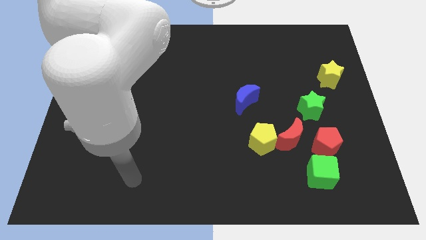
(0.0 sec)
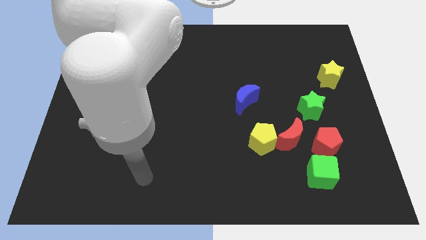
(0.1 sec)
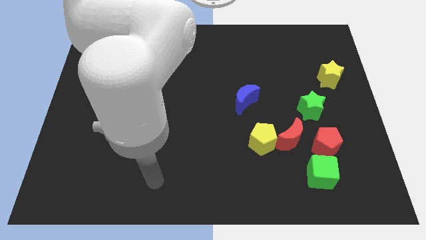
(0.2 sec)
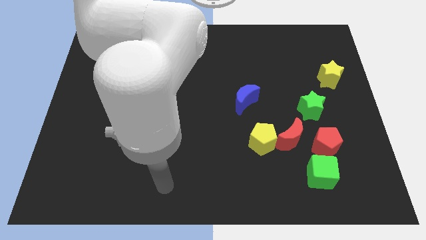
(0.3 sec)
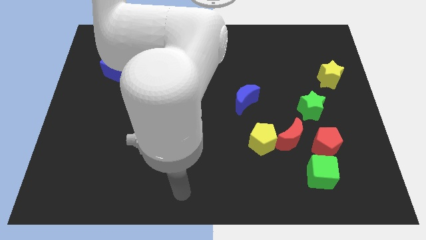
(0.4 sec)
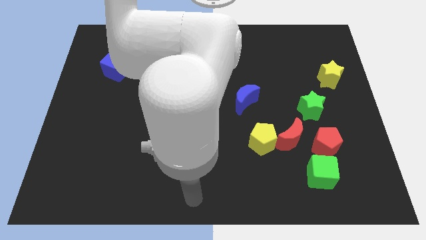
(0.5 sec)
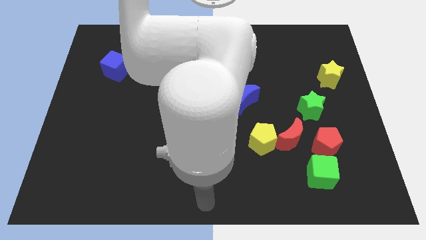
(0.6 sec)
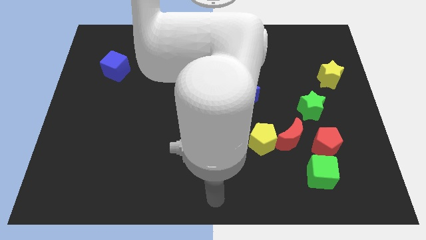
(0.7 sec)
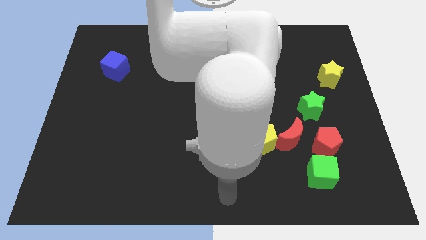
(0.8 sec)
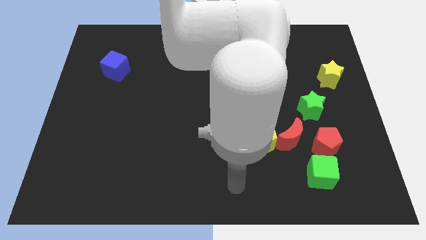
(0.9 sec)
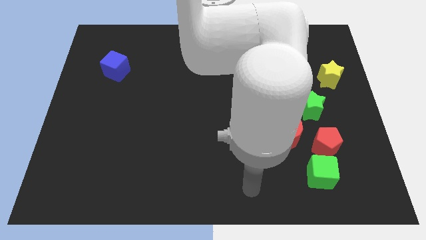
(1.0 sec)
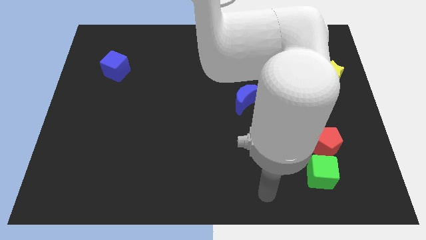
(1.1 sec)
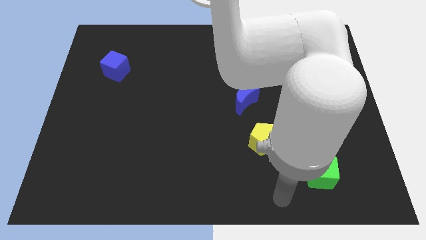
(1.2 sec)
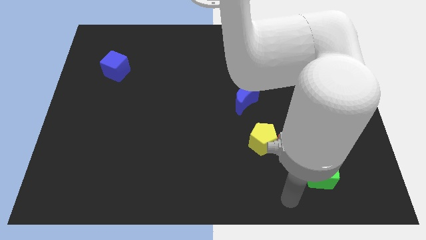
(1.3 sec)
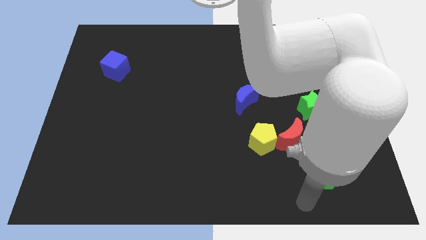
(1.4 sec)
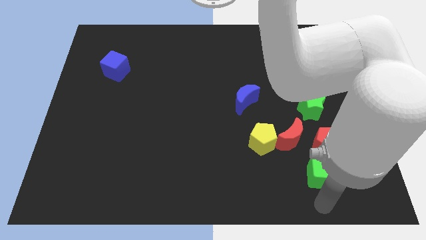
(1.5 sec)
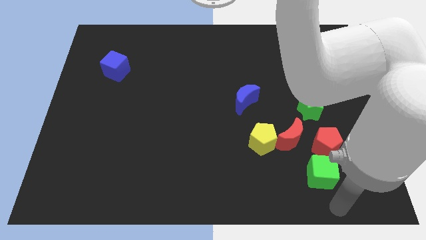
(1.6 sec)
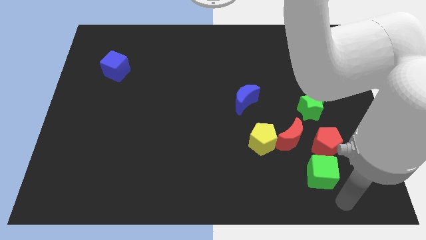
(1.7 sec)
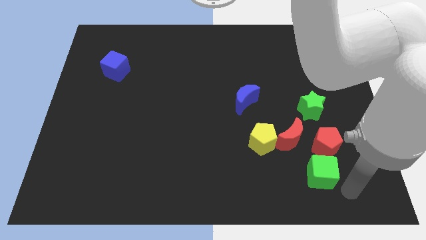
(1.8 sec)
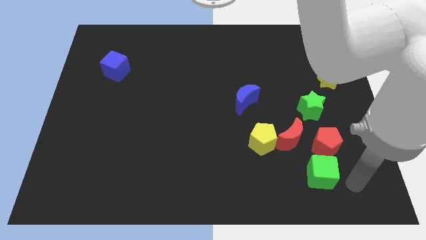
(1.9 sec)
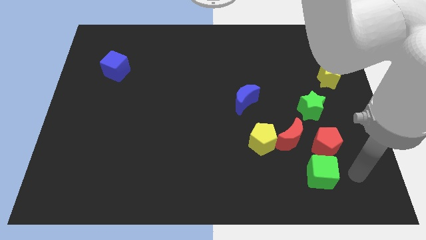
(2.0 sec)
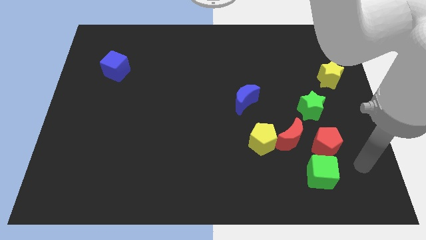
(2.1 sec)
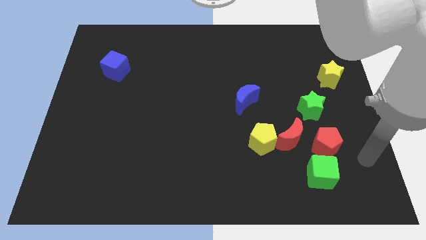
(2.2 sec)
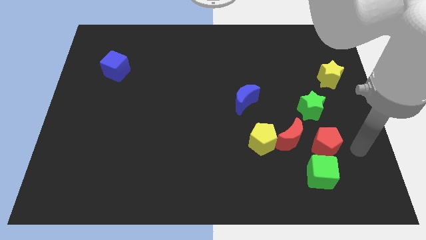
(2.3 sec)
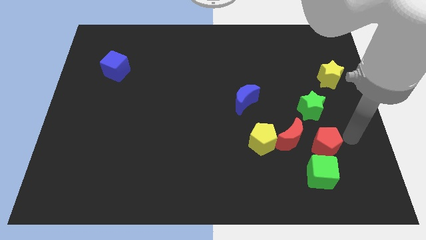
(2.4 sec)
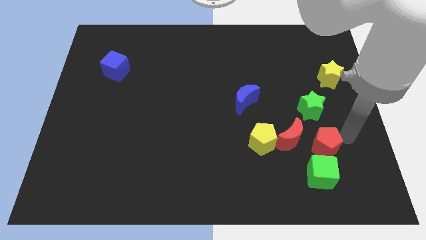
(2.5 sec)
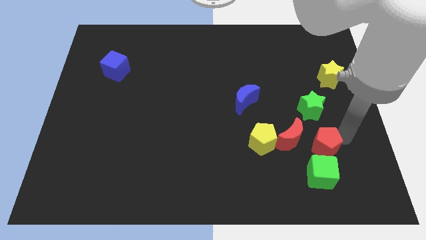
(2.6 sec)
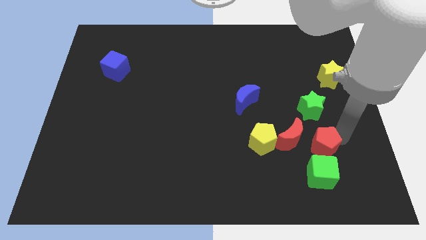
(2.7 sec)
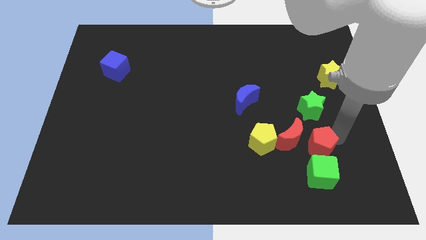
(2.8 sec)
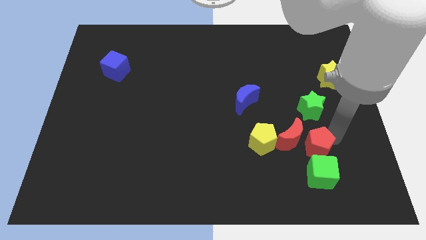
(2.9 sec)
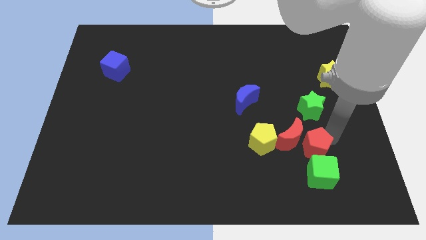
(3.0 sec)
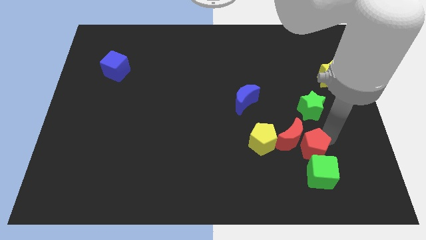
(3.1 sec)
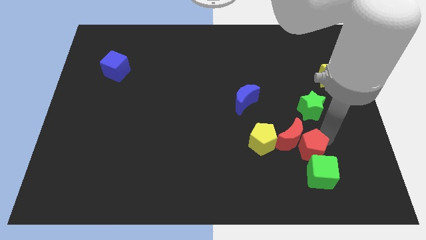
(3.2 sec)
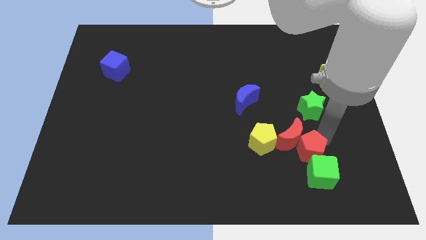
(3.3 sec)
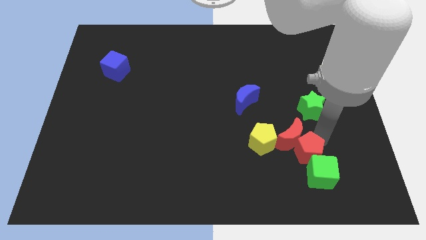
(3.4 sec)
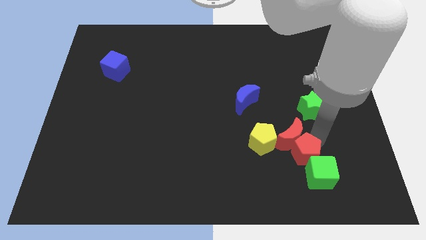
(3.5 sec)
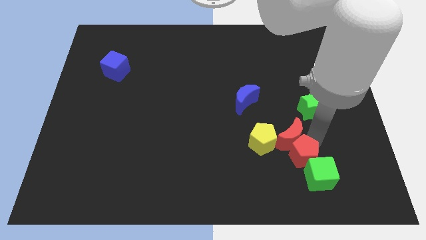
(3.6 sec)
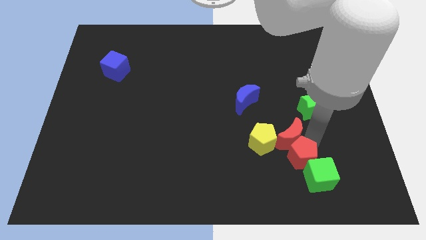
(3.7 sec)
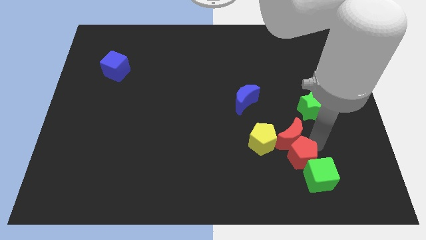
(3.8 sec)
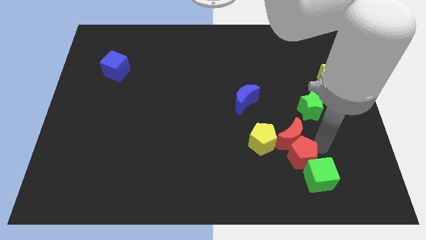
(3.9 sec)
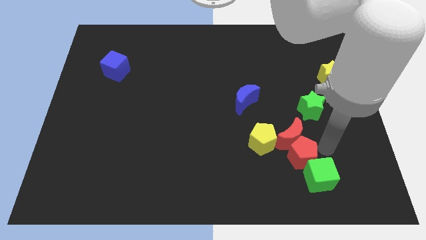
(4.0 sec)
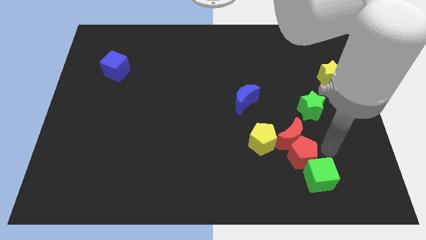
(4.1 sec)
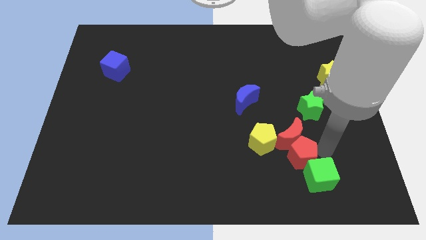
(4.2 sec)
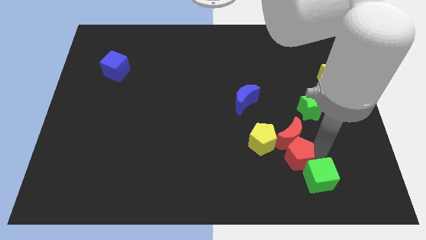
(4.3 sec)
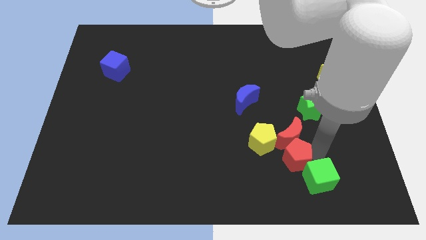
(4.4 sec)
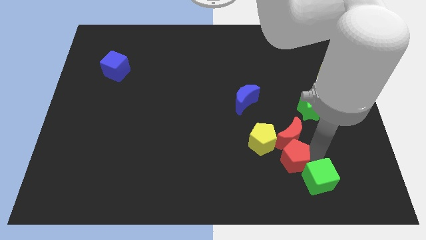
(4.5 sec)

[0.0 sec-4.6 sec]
push the red pentagon a little bit to the left

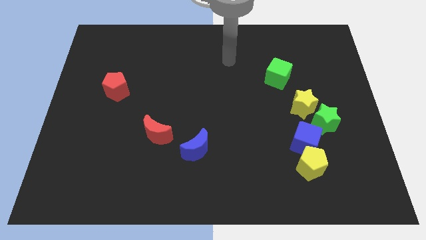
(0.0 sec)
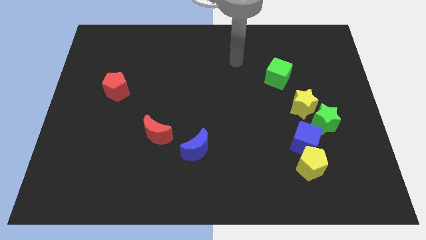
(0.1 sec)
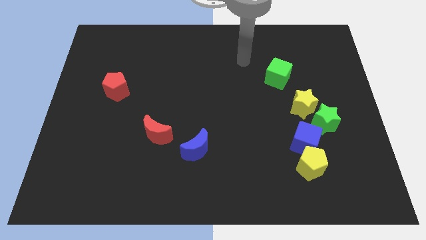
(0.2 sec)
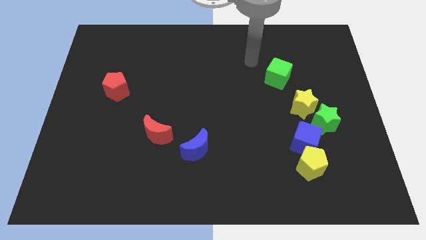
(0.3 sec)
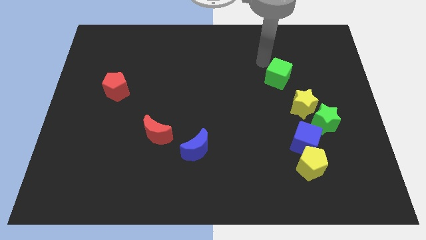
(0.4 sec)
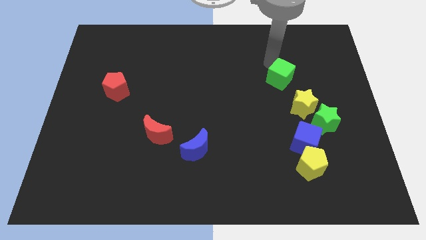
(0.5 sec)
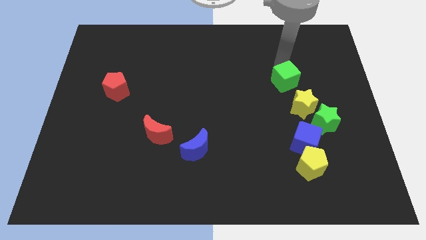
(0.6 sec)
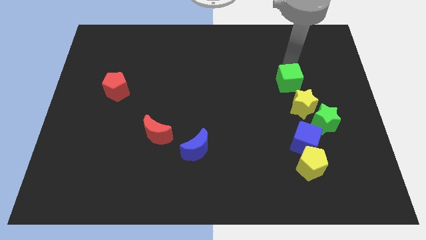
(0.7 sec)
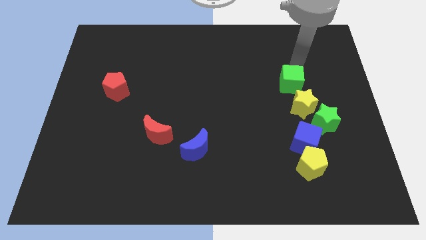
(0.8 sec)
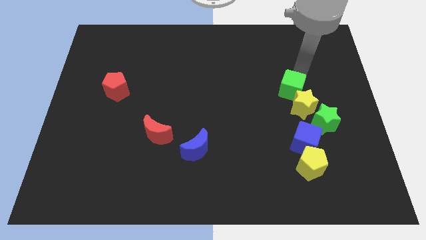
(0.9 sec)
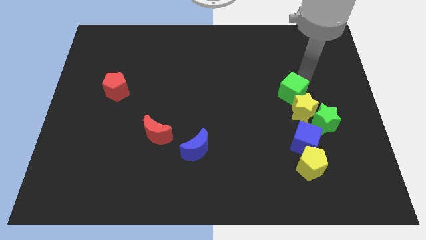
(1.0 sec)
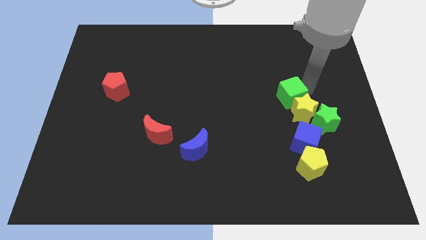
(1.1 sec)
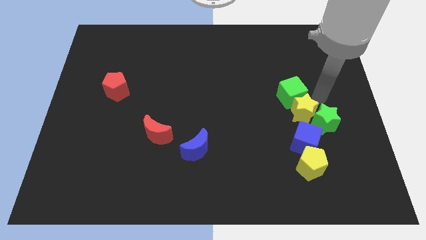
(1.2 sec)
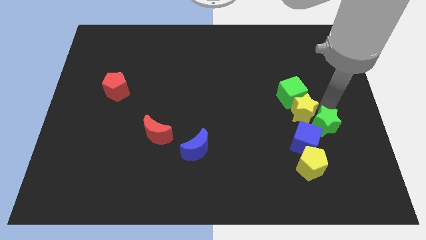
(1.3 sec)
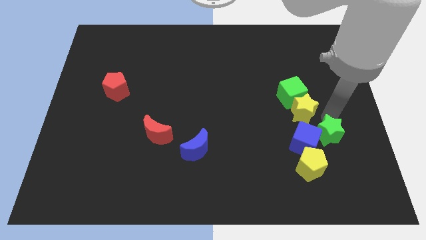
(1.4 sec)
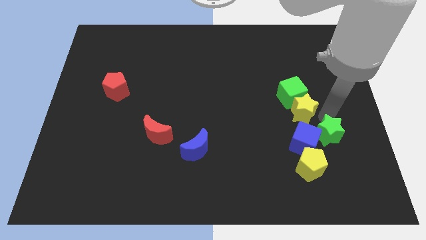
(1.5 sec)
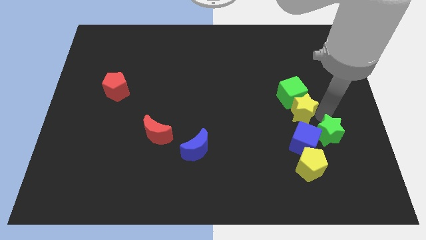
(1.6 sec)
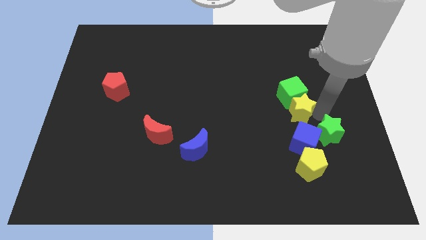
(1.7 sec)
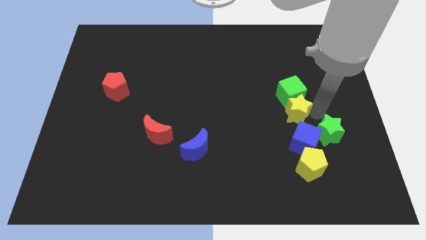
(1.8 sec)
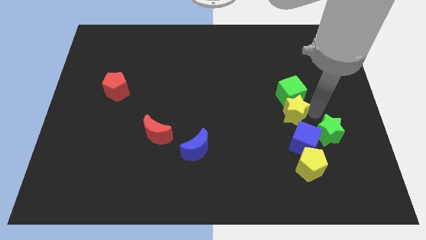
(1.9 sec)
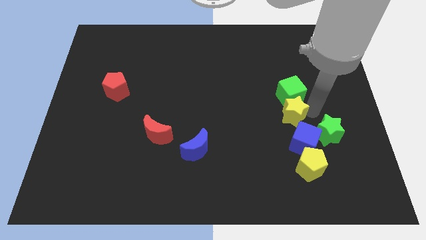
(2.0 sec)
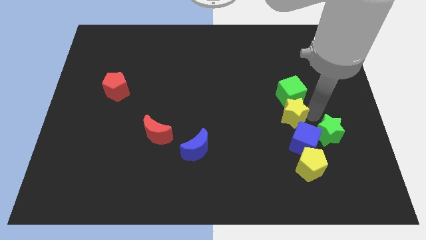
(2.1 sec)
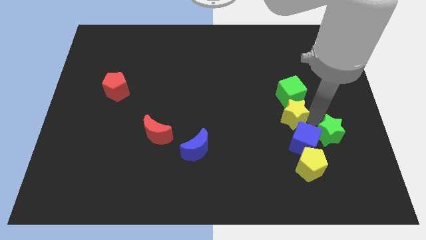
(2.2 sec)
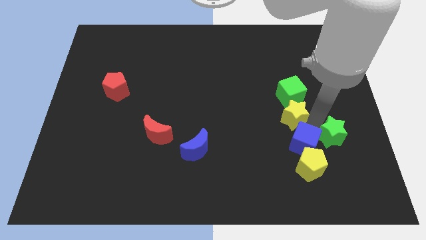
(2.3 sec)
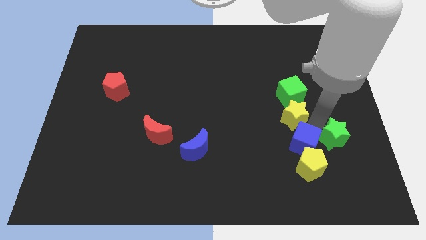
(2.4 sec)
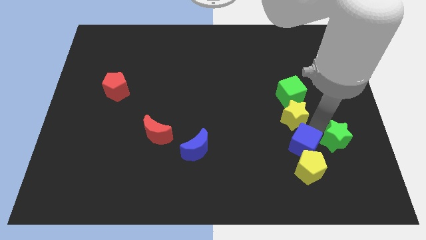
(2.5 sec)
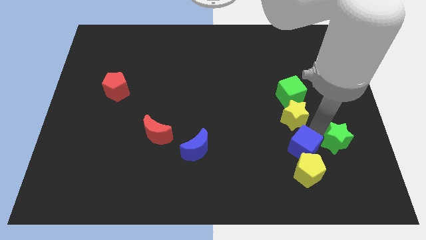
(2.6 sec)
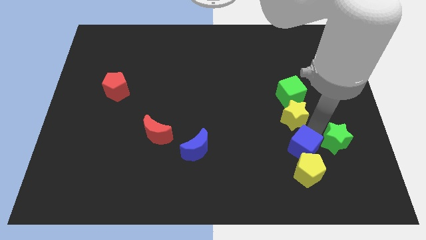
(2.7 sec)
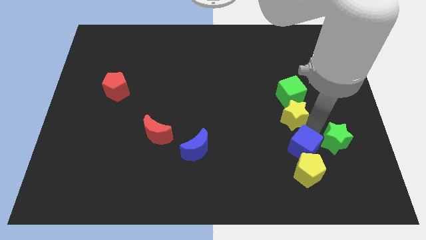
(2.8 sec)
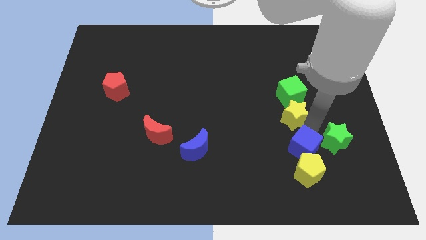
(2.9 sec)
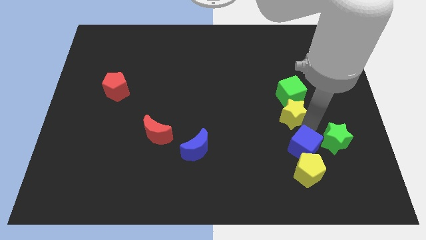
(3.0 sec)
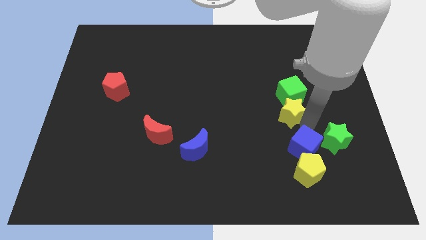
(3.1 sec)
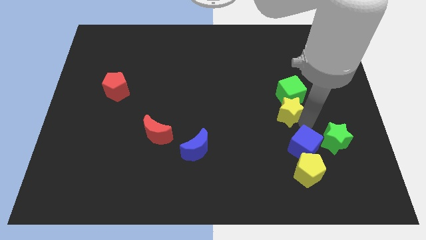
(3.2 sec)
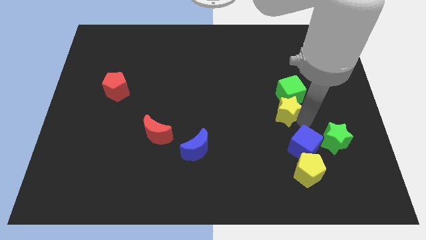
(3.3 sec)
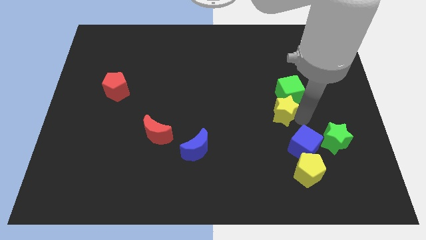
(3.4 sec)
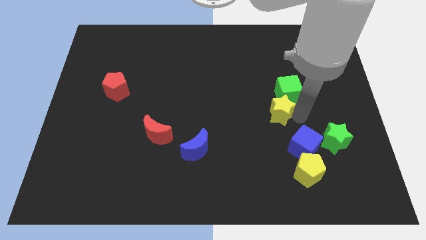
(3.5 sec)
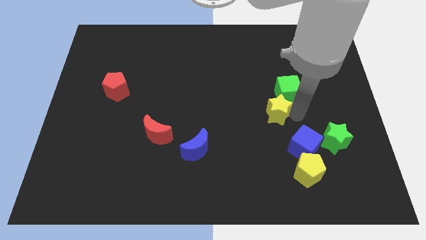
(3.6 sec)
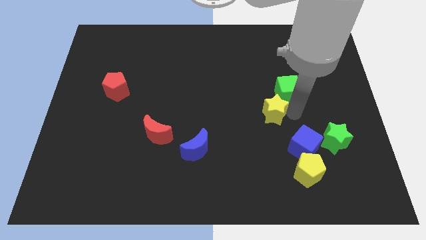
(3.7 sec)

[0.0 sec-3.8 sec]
slightly slide the yellow star left
